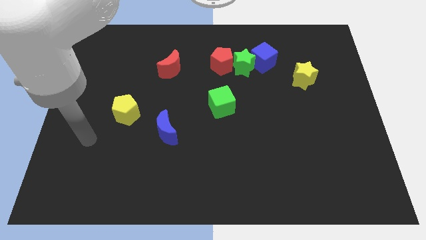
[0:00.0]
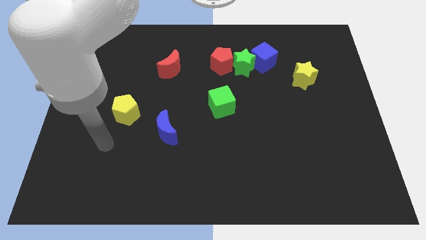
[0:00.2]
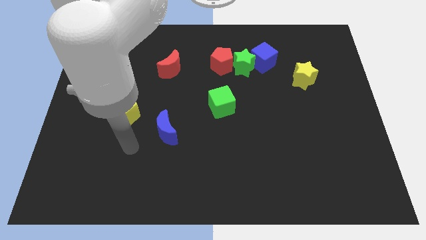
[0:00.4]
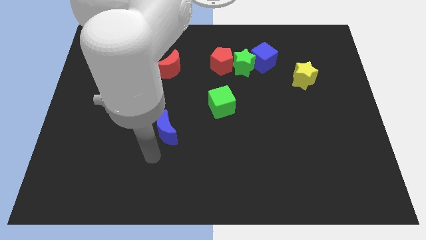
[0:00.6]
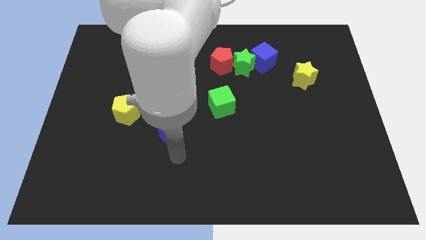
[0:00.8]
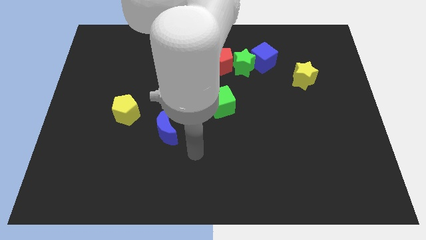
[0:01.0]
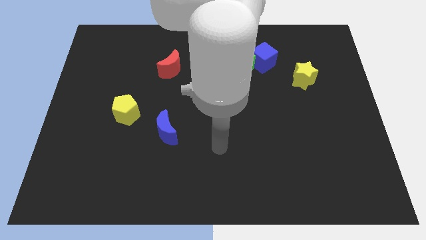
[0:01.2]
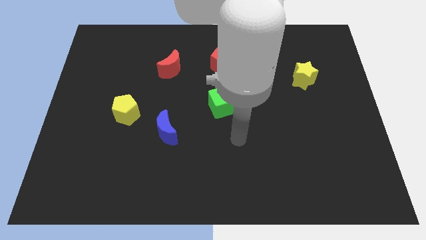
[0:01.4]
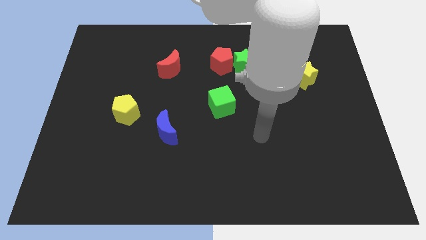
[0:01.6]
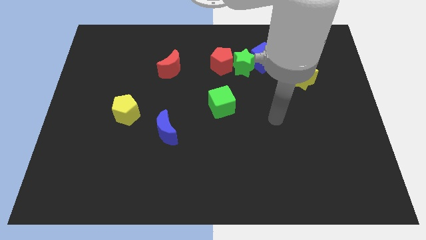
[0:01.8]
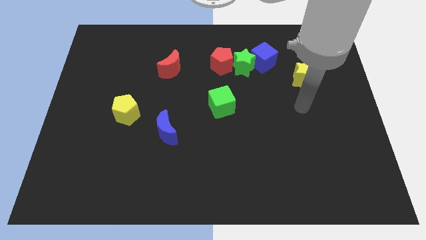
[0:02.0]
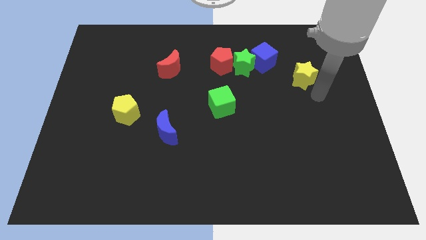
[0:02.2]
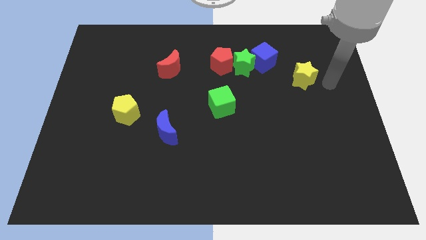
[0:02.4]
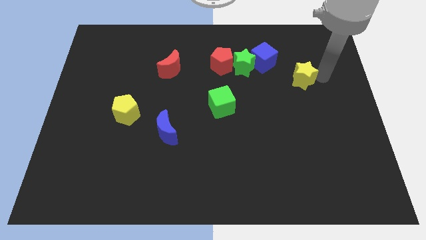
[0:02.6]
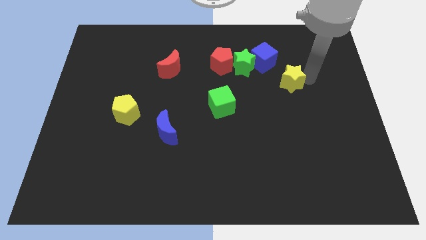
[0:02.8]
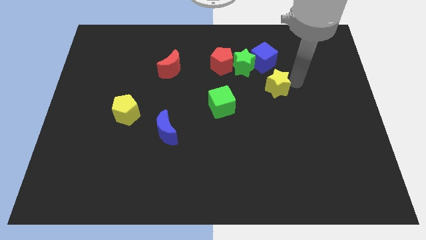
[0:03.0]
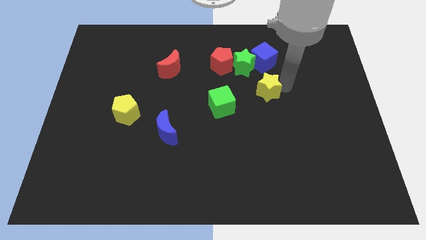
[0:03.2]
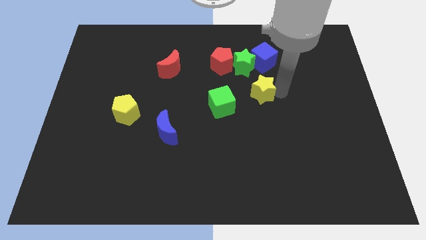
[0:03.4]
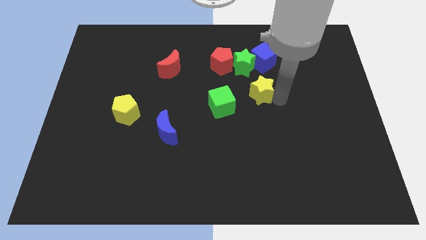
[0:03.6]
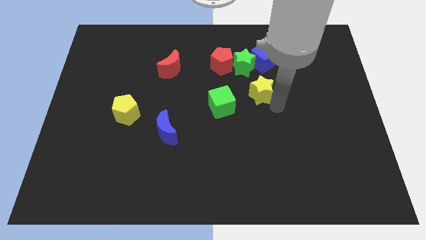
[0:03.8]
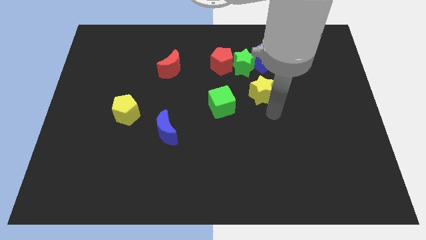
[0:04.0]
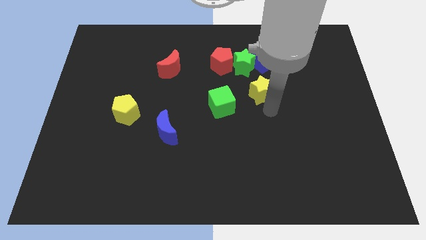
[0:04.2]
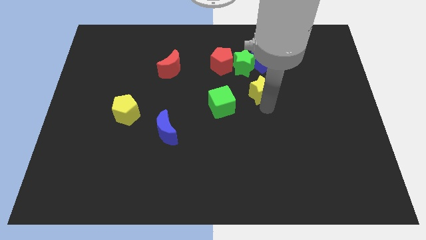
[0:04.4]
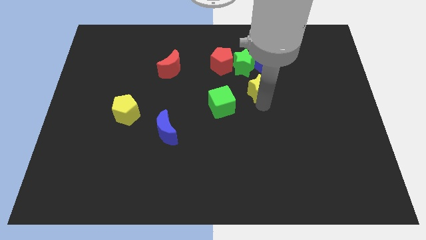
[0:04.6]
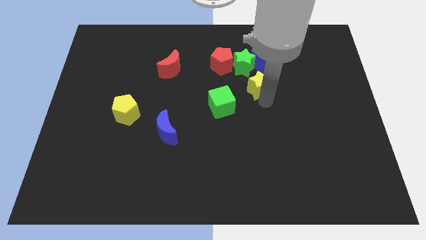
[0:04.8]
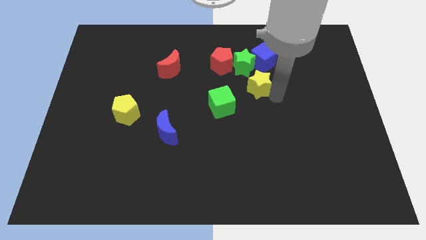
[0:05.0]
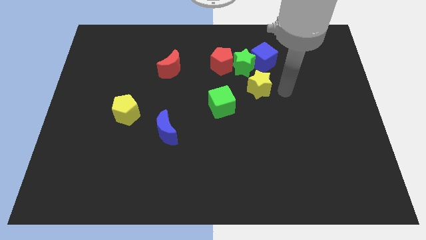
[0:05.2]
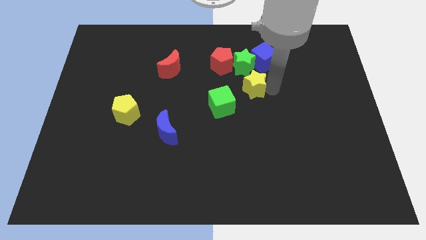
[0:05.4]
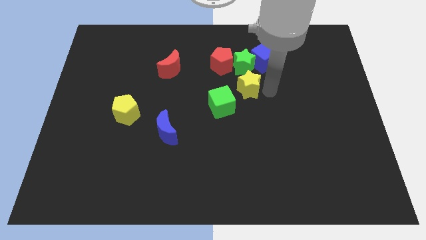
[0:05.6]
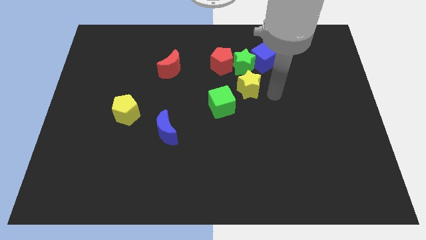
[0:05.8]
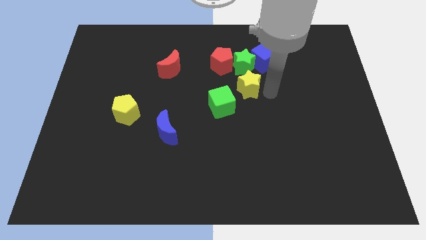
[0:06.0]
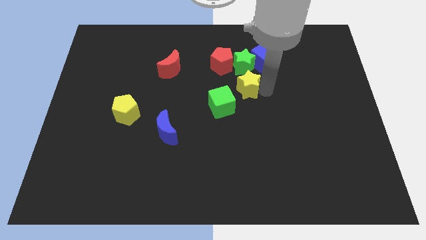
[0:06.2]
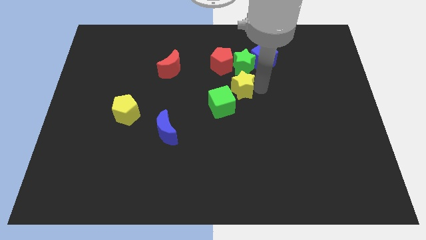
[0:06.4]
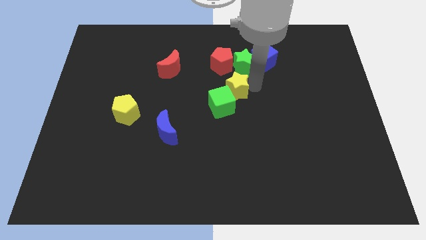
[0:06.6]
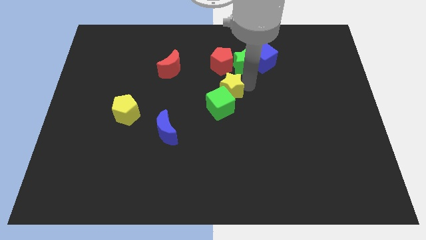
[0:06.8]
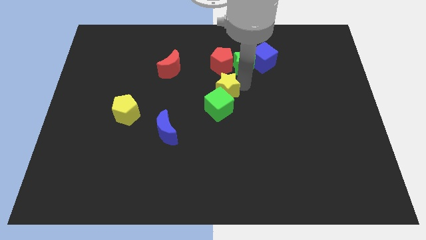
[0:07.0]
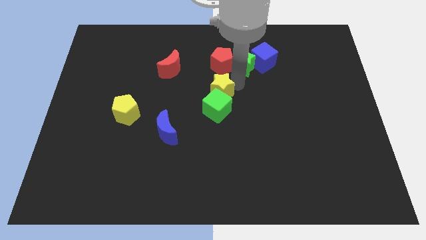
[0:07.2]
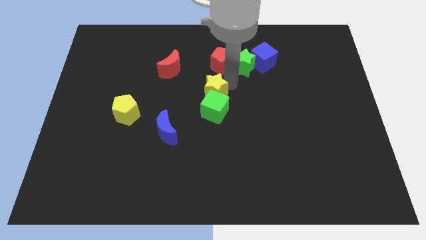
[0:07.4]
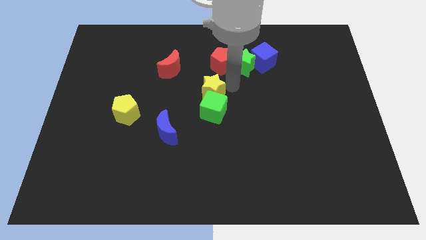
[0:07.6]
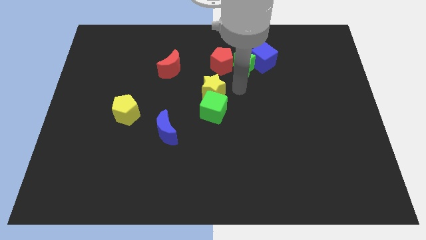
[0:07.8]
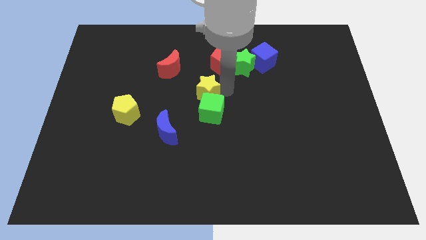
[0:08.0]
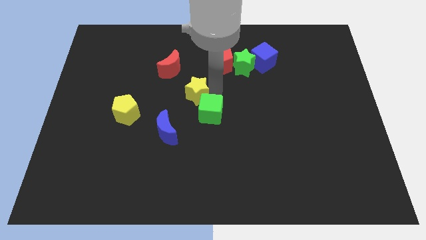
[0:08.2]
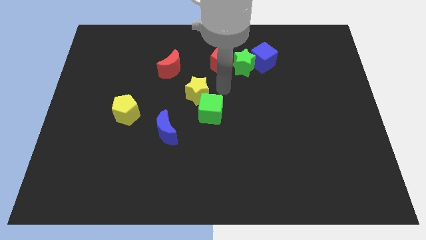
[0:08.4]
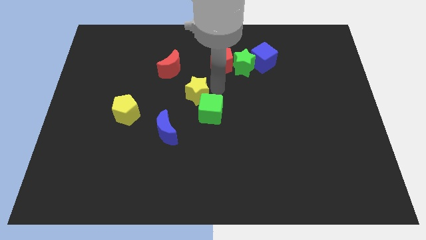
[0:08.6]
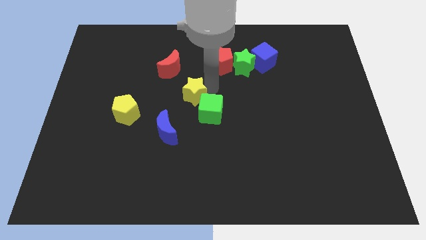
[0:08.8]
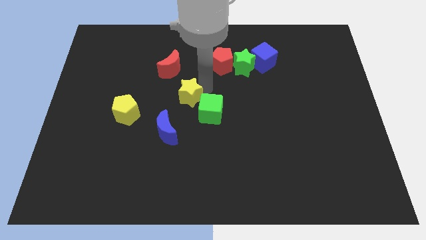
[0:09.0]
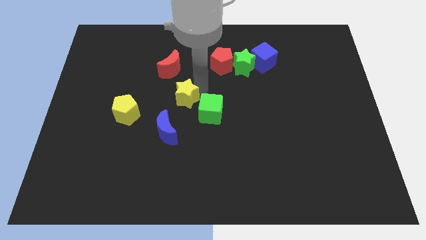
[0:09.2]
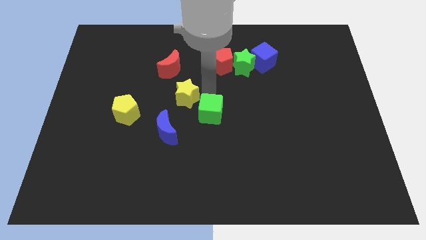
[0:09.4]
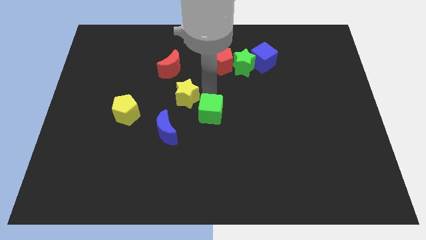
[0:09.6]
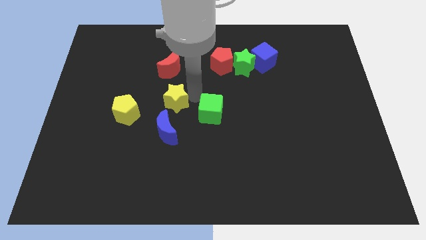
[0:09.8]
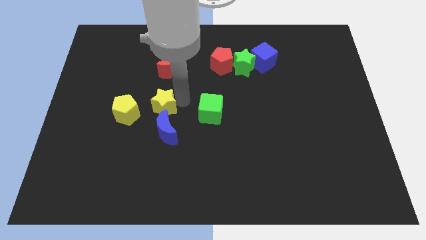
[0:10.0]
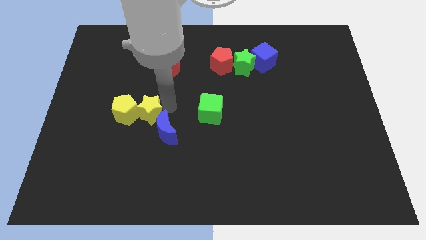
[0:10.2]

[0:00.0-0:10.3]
put the yellow star close to the yellow pentagon

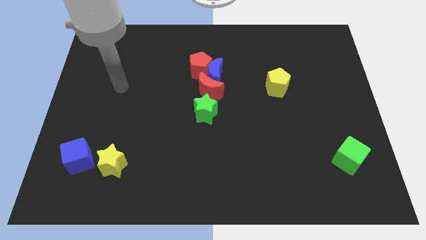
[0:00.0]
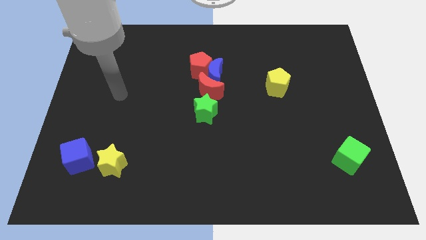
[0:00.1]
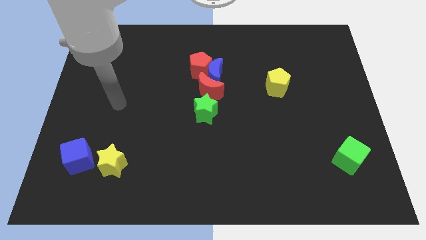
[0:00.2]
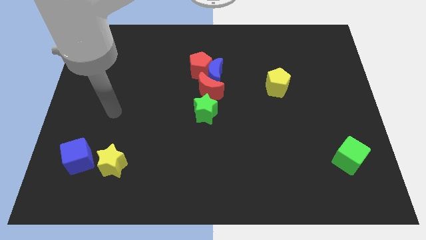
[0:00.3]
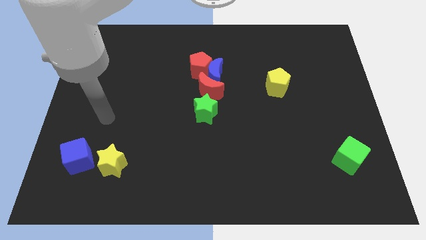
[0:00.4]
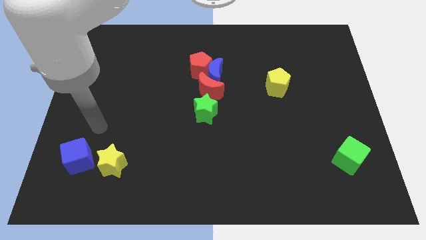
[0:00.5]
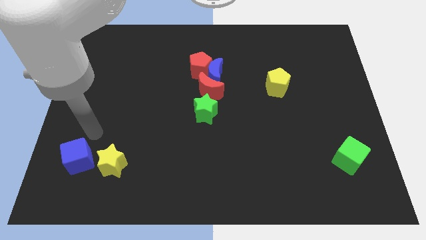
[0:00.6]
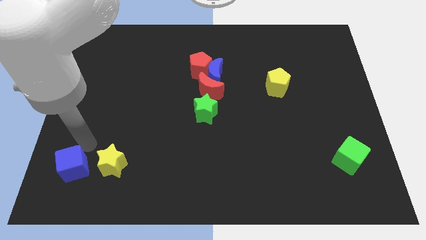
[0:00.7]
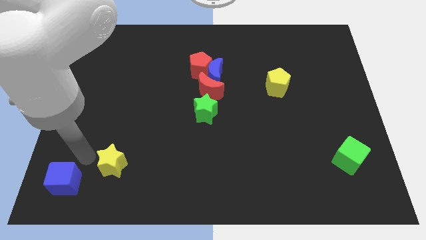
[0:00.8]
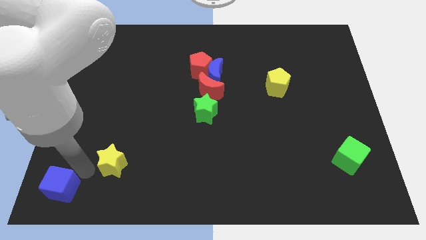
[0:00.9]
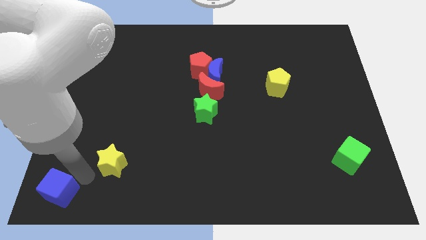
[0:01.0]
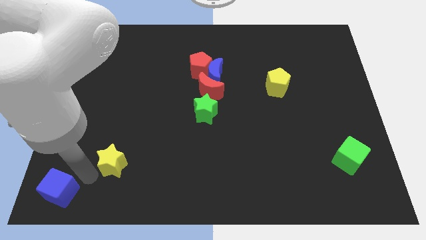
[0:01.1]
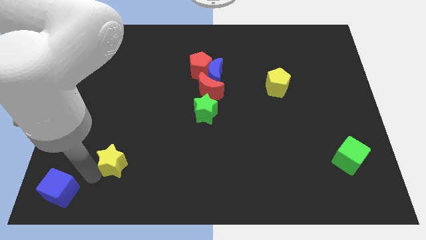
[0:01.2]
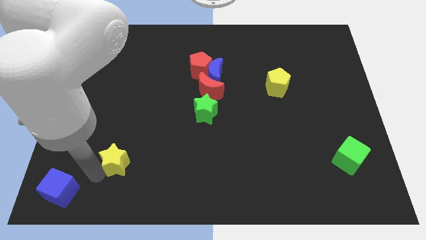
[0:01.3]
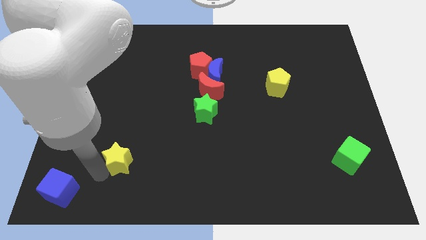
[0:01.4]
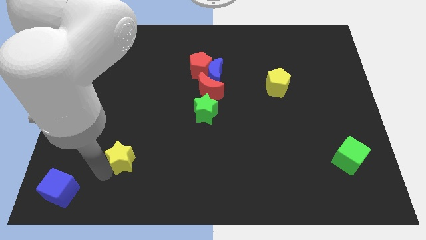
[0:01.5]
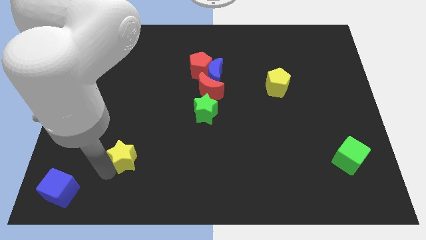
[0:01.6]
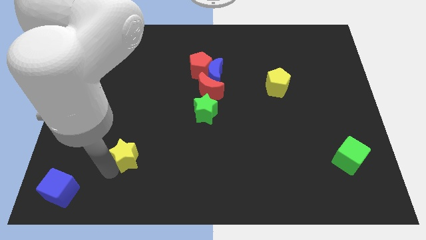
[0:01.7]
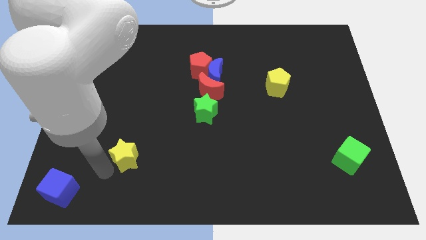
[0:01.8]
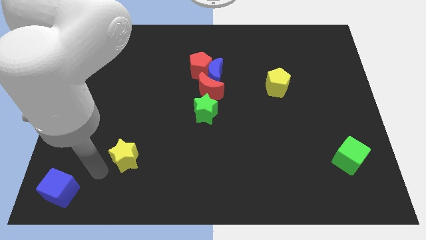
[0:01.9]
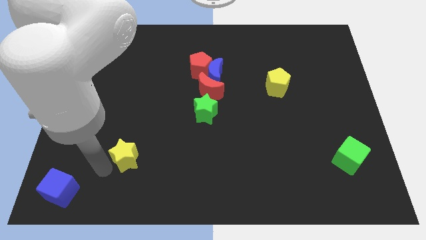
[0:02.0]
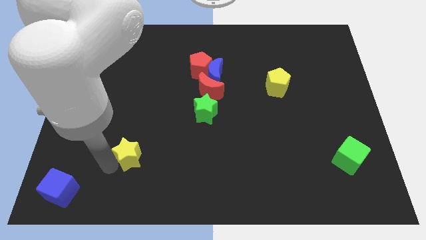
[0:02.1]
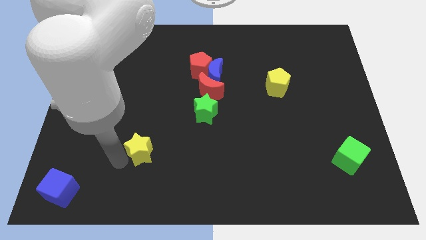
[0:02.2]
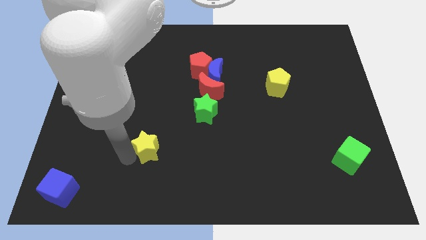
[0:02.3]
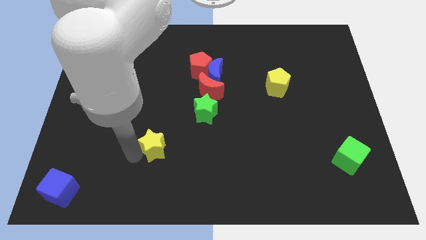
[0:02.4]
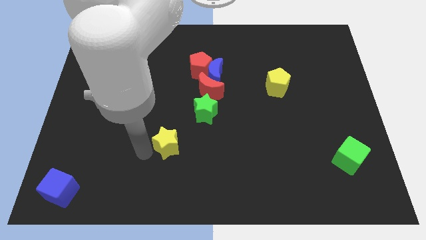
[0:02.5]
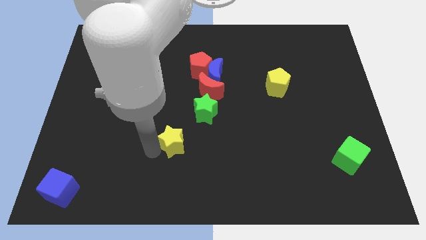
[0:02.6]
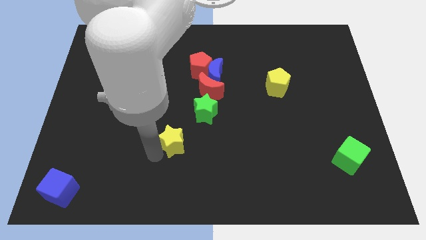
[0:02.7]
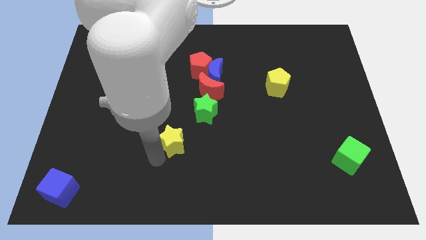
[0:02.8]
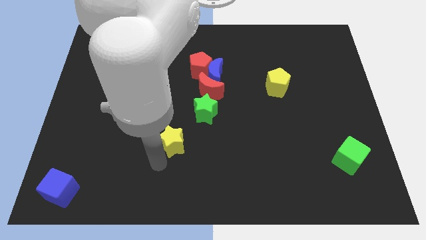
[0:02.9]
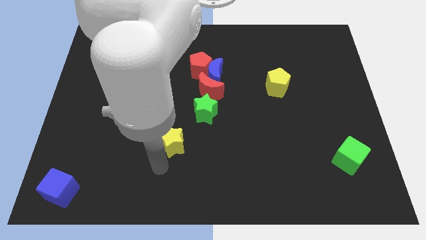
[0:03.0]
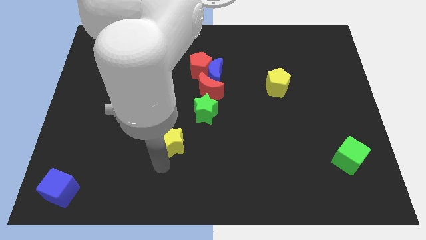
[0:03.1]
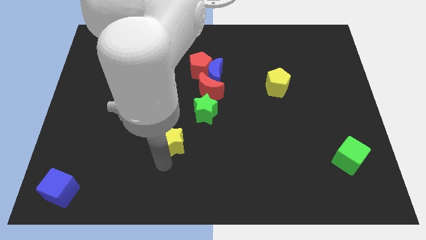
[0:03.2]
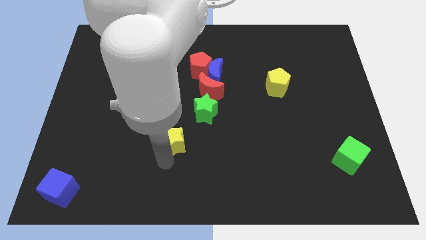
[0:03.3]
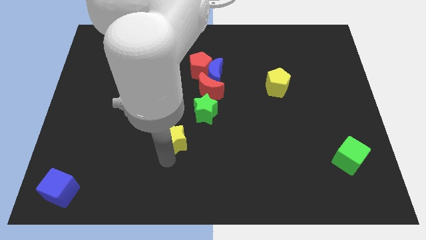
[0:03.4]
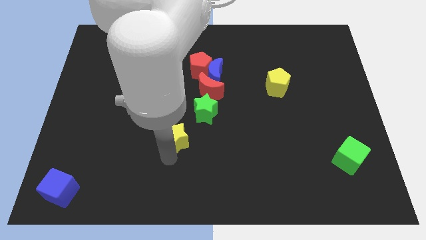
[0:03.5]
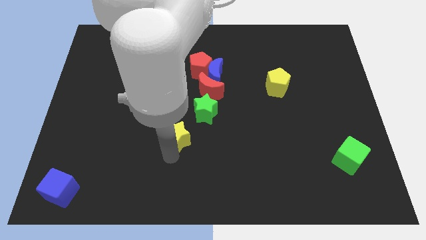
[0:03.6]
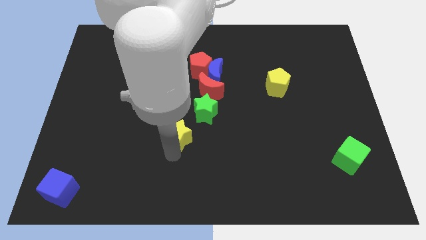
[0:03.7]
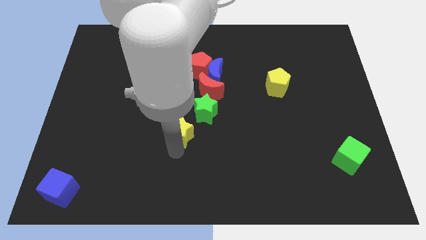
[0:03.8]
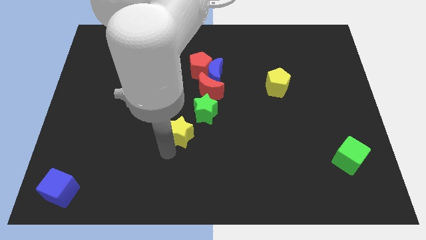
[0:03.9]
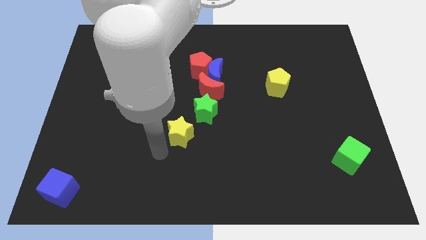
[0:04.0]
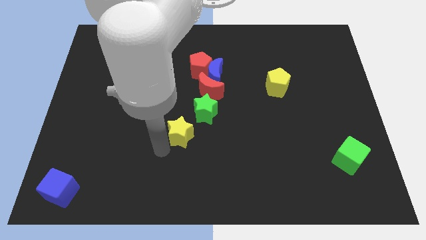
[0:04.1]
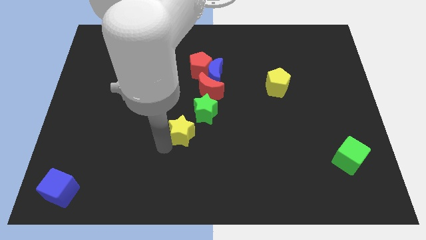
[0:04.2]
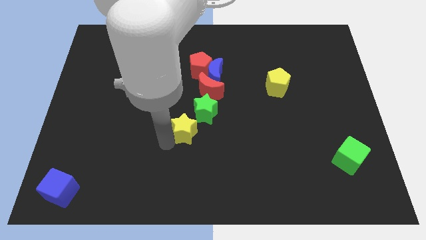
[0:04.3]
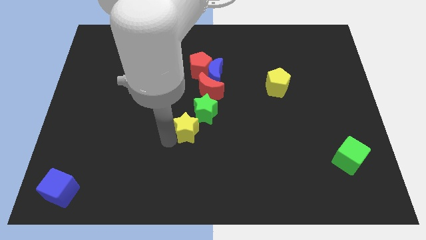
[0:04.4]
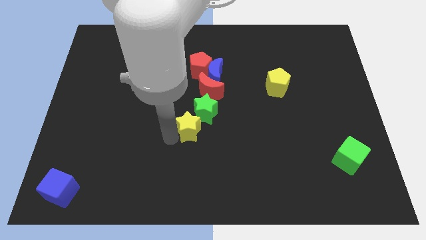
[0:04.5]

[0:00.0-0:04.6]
put the yellow star towards the green star
